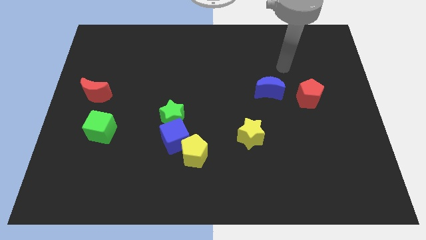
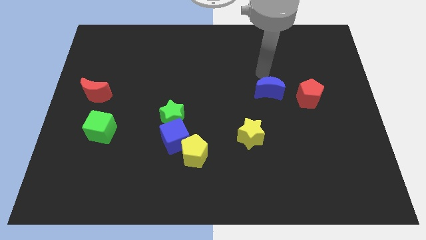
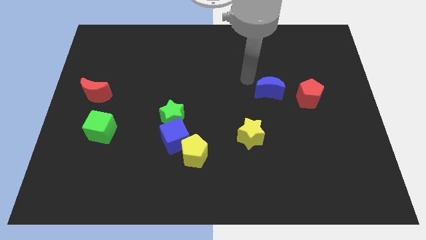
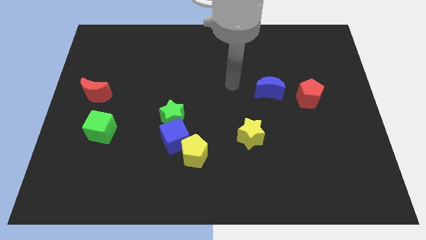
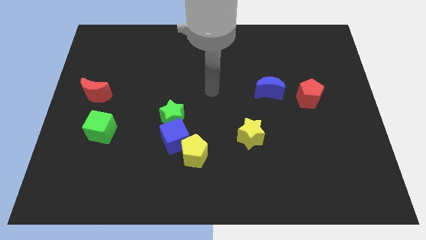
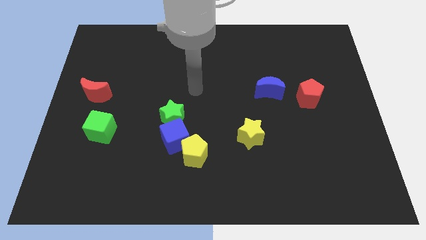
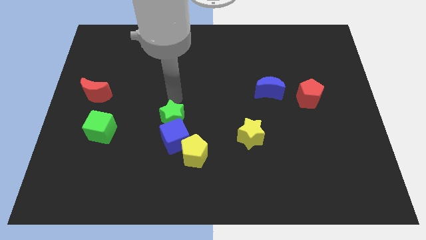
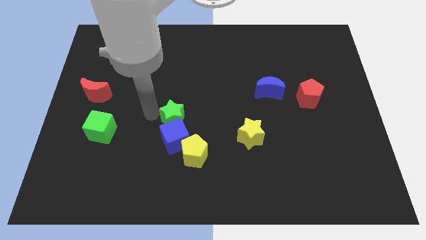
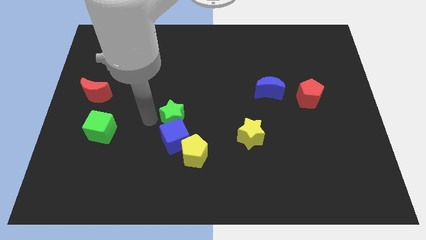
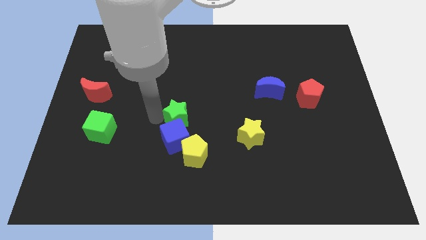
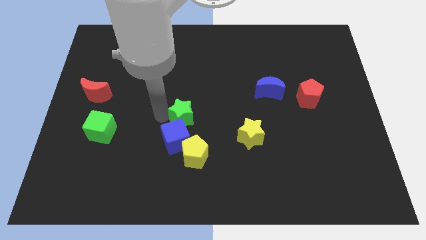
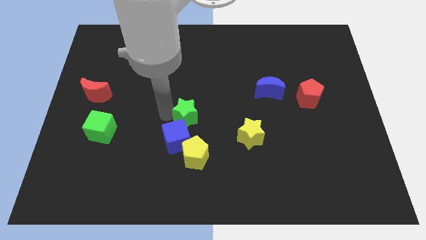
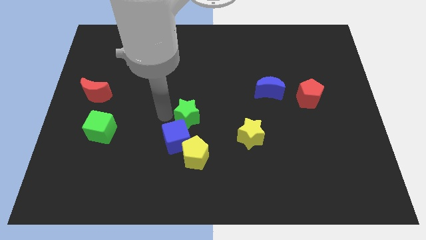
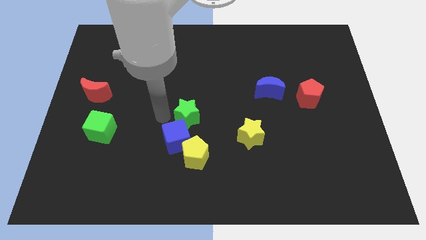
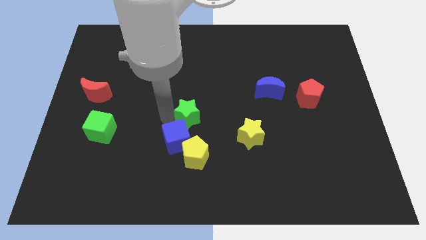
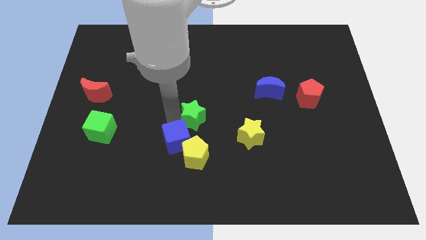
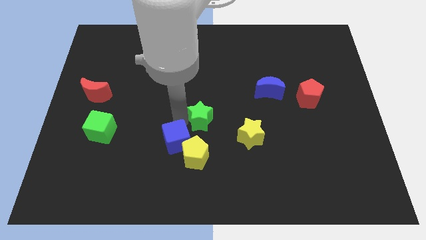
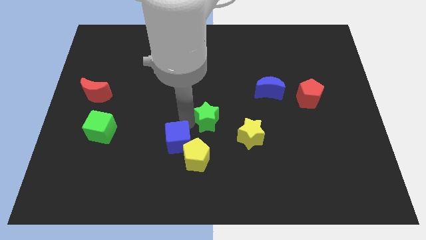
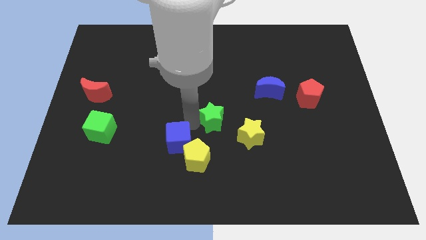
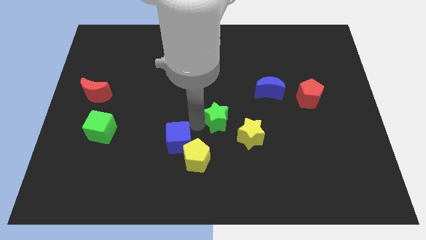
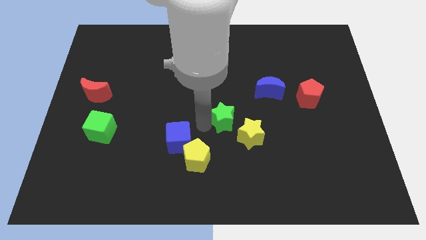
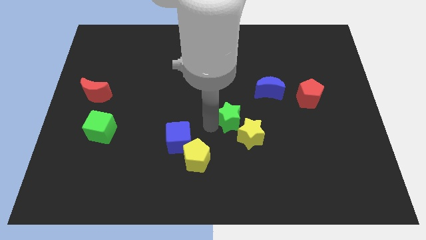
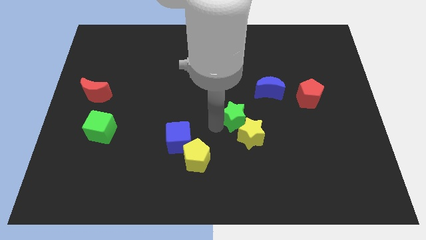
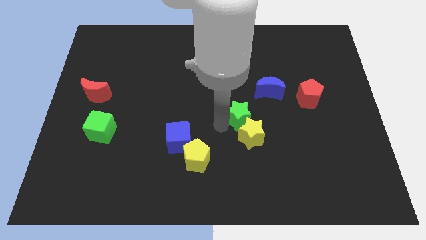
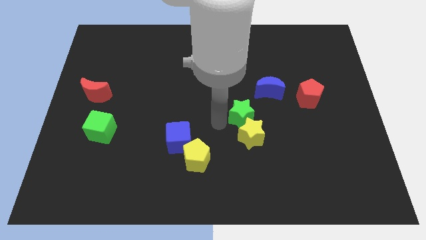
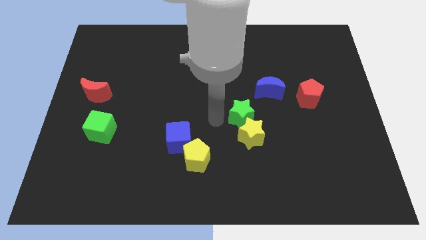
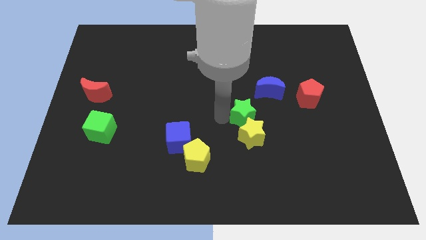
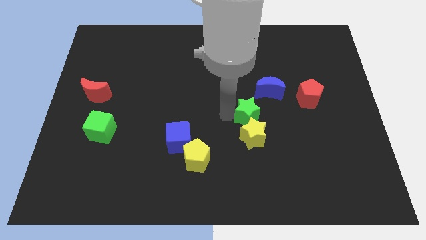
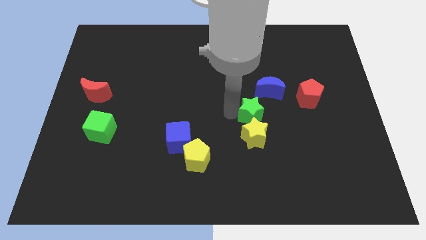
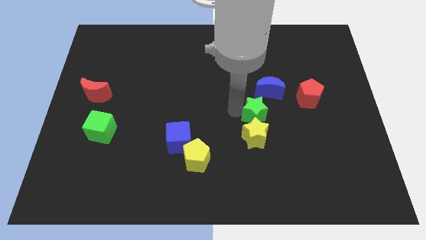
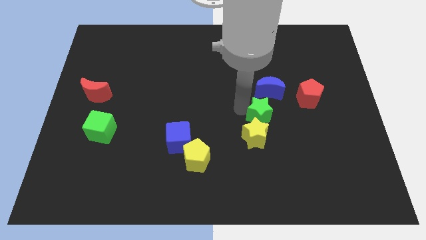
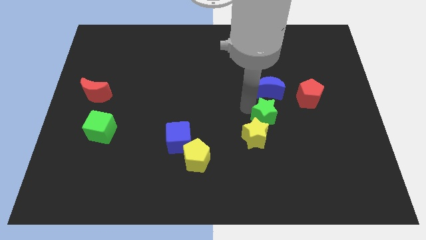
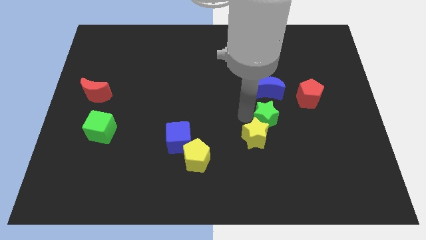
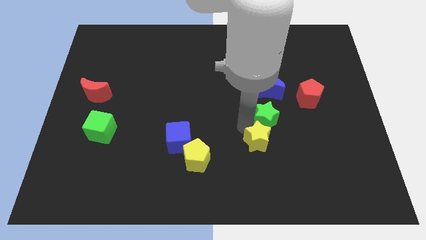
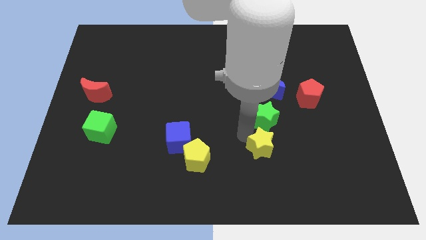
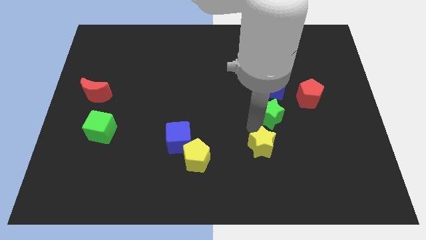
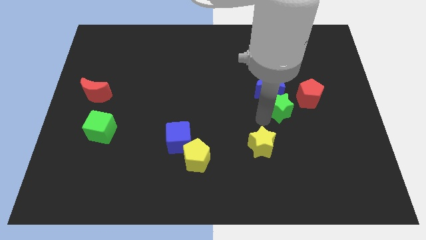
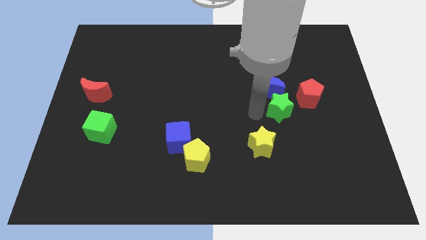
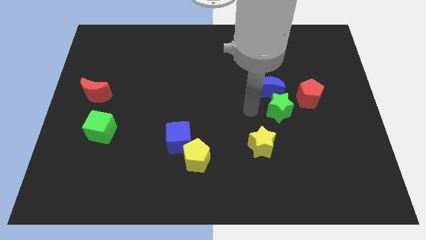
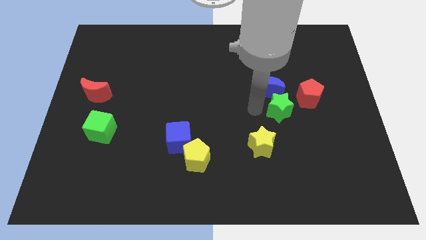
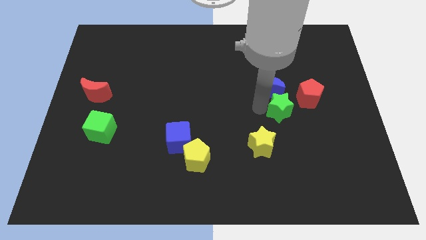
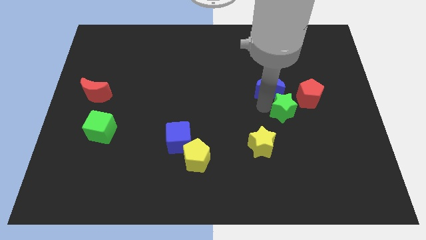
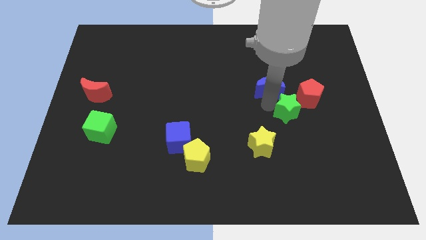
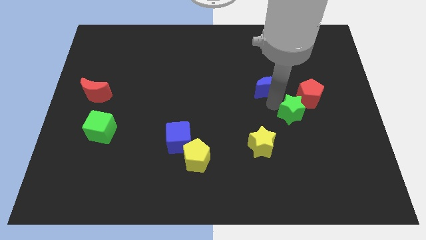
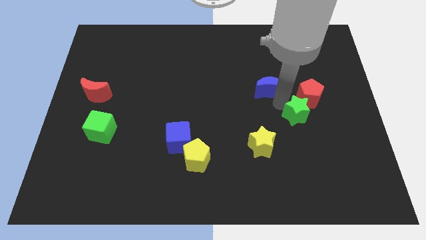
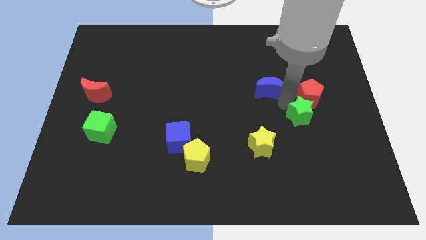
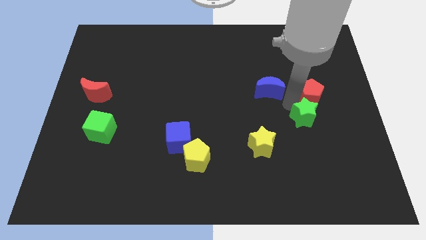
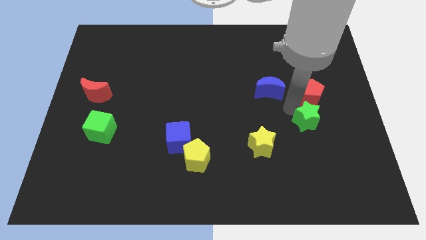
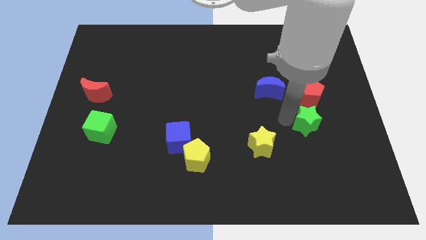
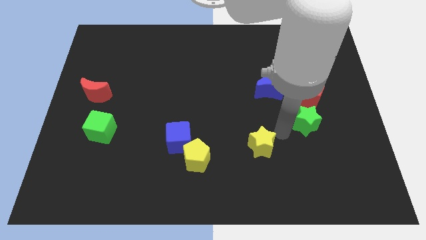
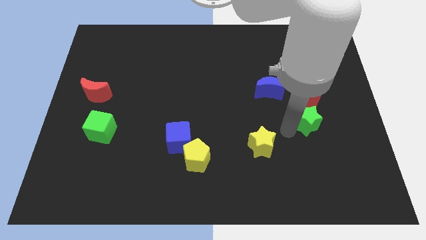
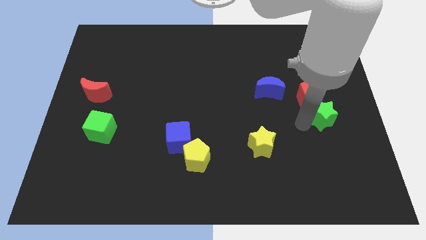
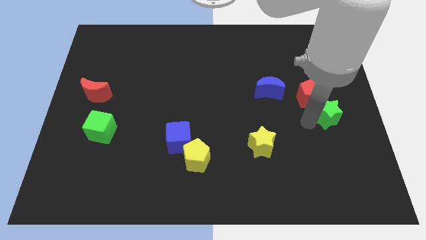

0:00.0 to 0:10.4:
put the green star to the center right

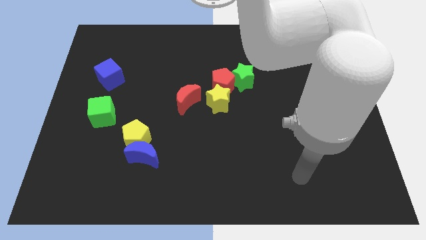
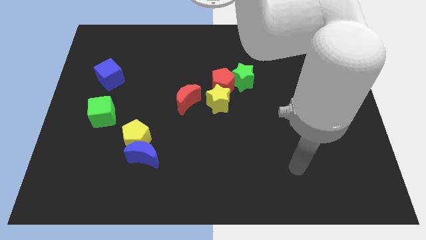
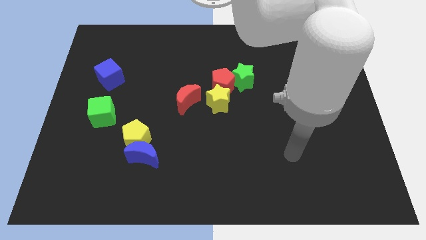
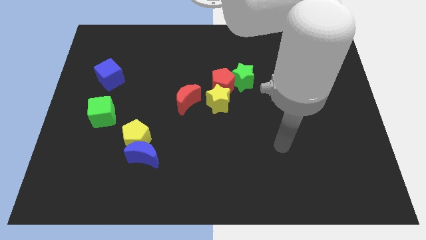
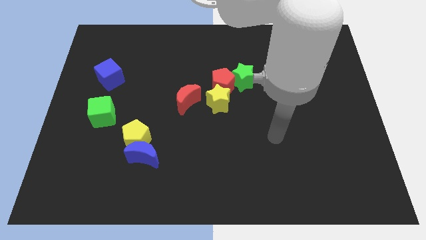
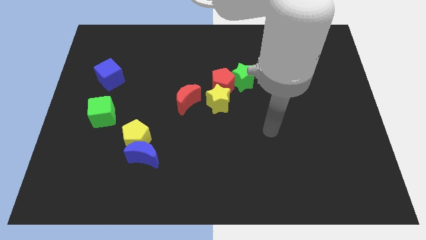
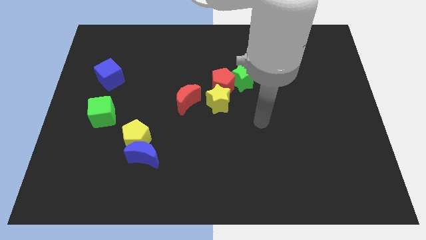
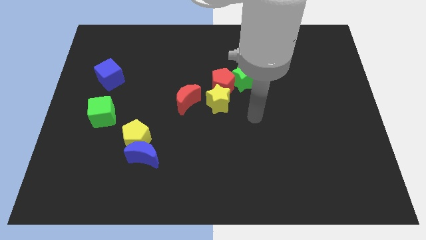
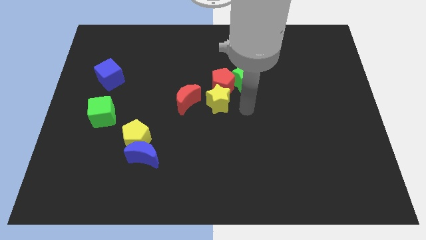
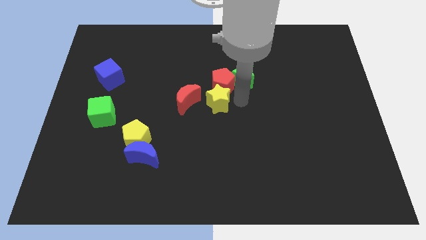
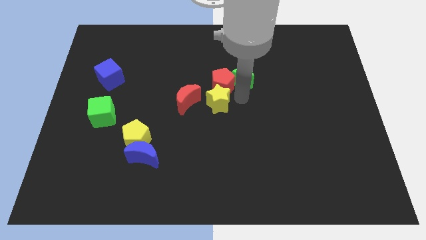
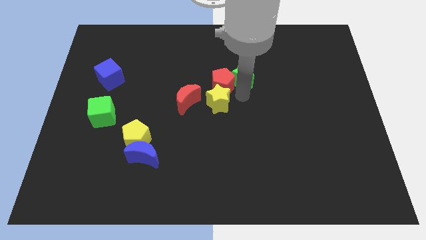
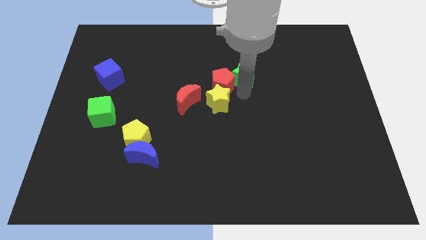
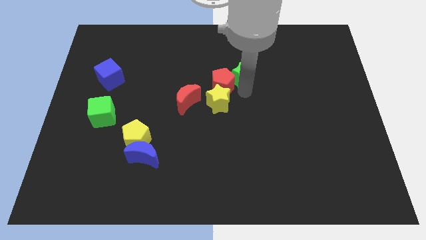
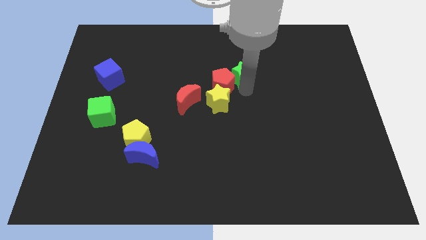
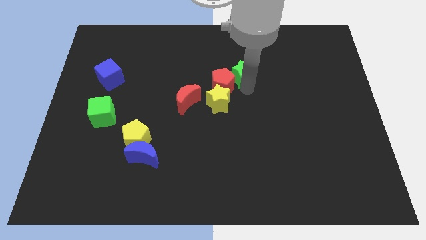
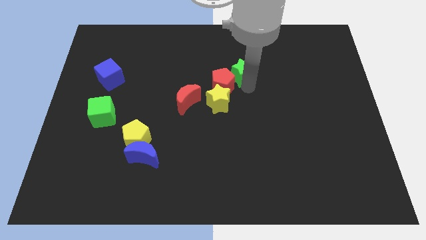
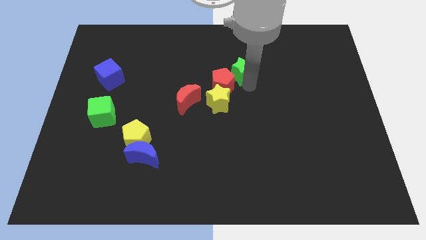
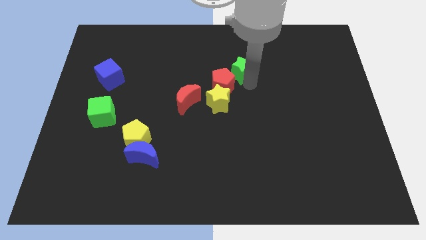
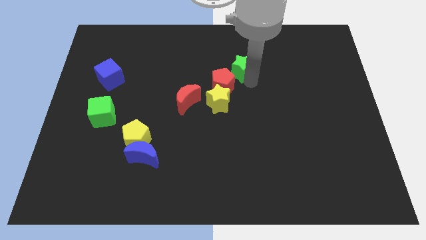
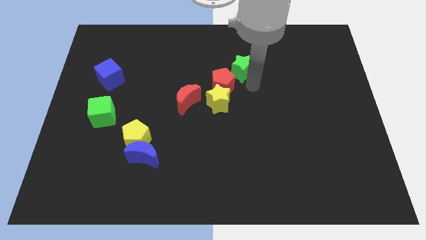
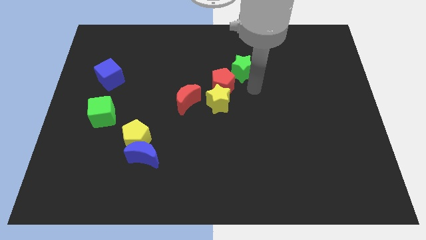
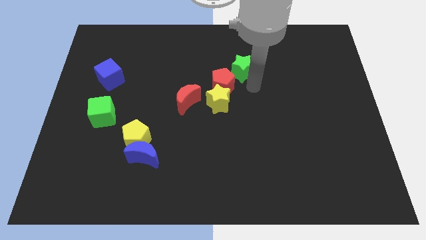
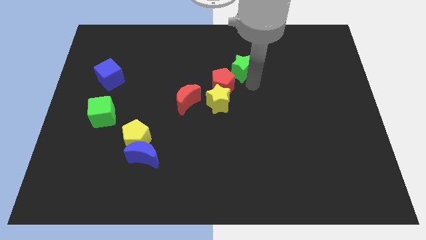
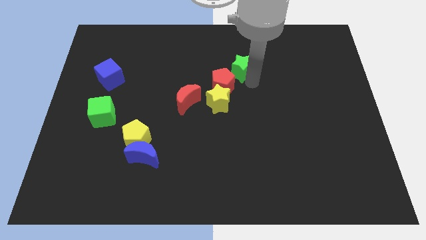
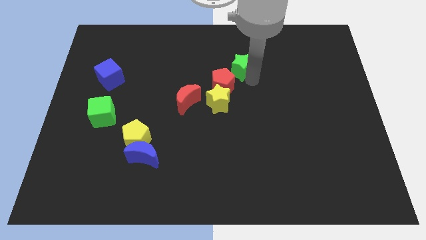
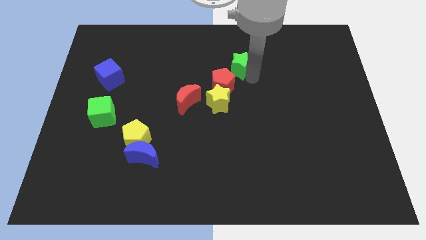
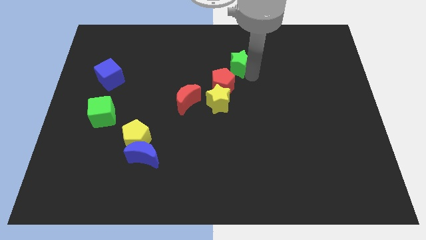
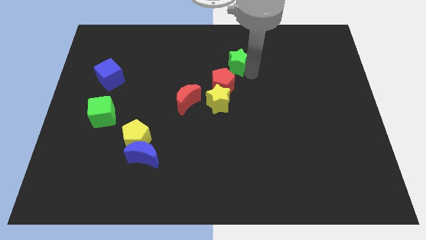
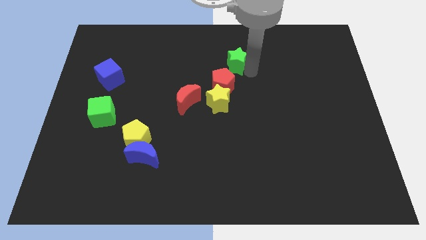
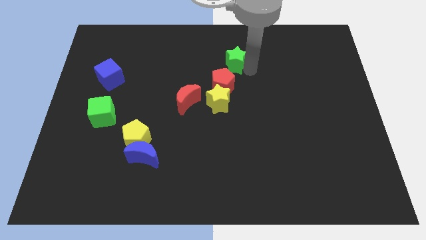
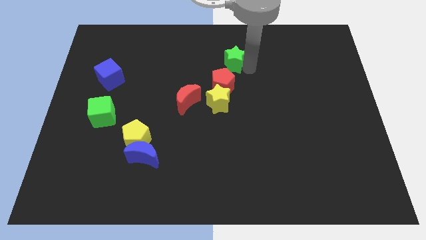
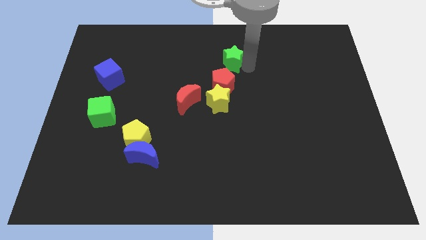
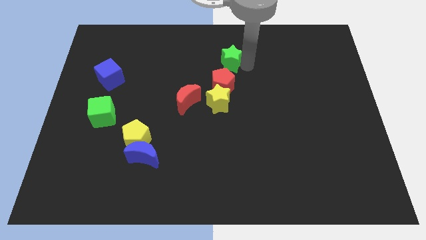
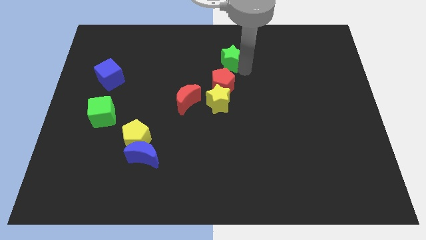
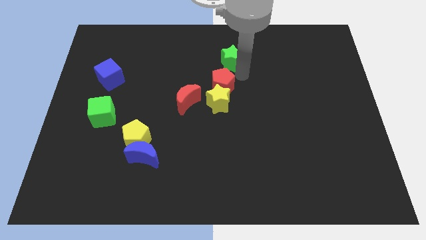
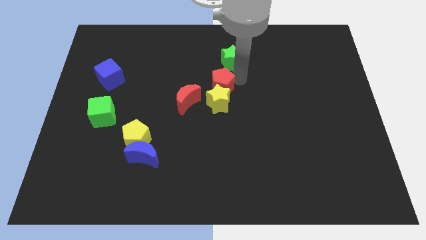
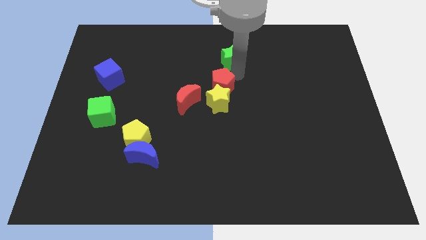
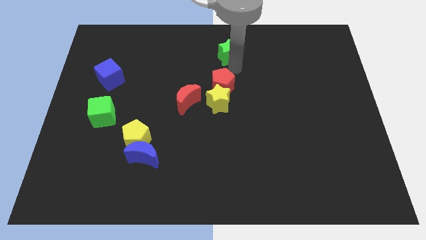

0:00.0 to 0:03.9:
slide the green star to the towards your base
